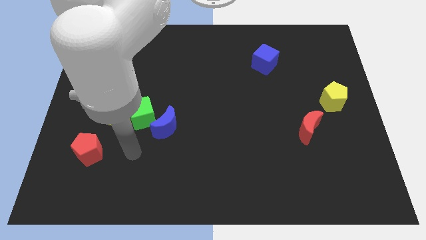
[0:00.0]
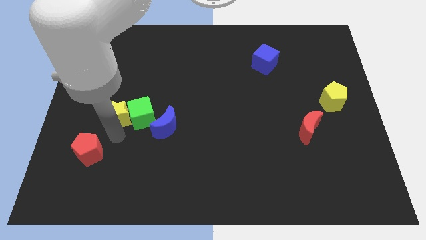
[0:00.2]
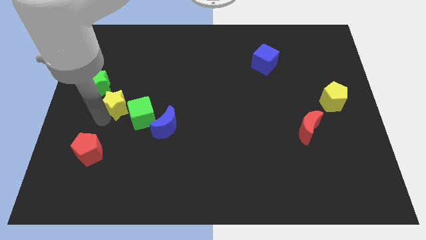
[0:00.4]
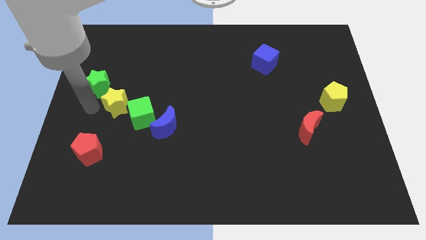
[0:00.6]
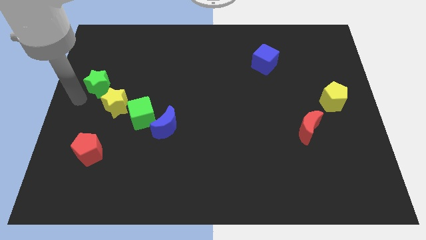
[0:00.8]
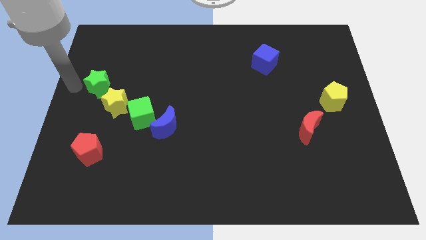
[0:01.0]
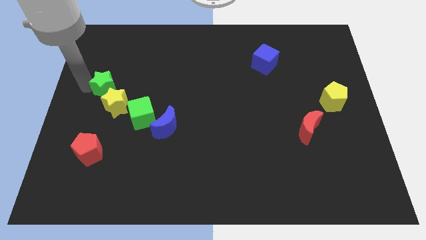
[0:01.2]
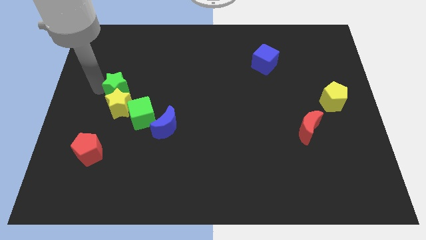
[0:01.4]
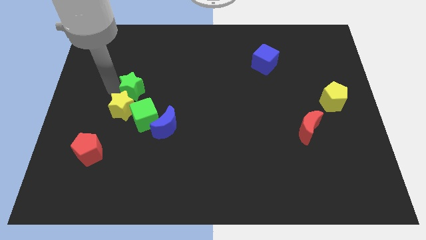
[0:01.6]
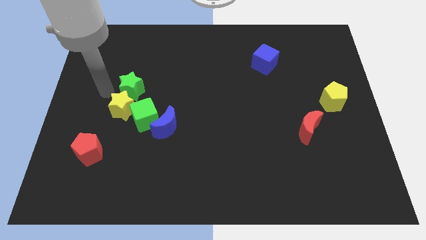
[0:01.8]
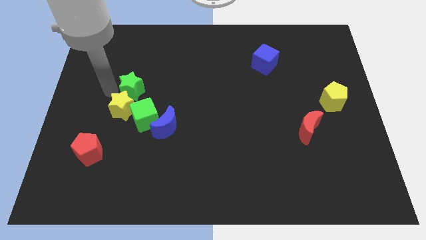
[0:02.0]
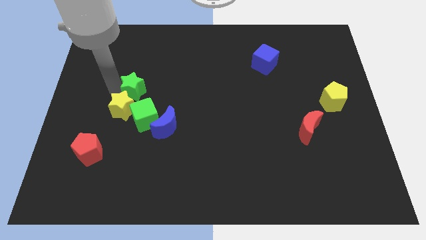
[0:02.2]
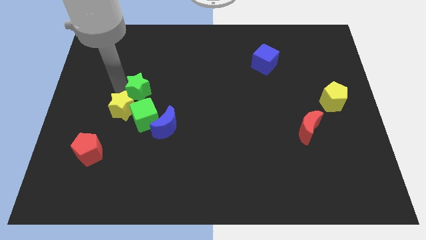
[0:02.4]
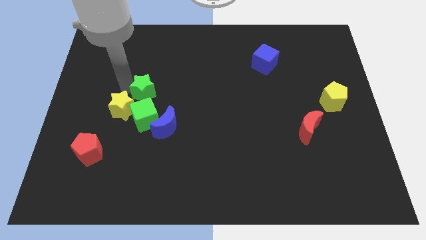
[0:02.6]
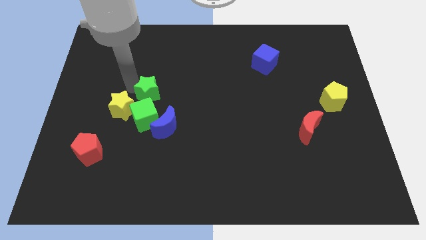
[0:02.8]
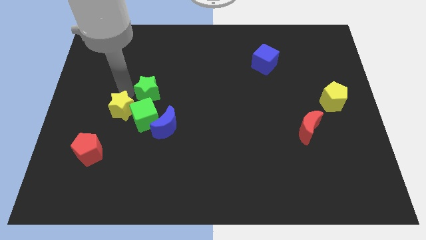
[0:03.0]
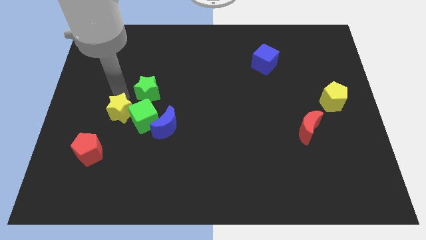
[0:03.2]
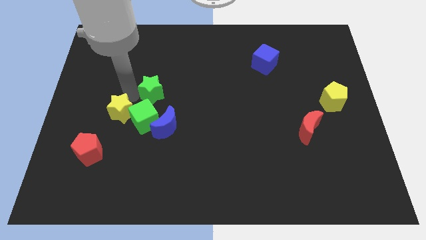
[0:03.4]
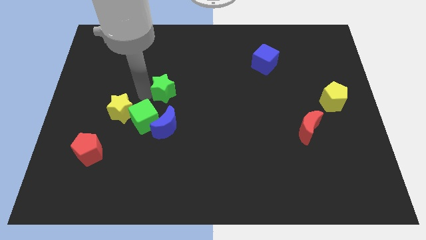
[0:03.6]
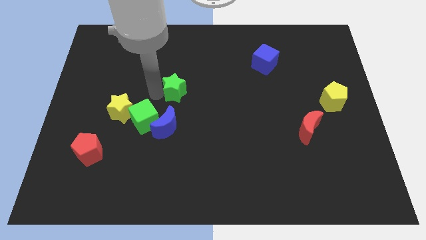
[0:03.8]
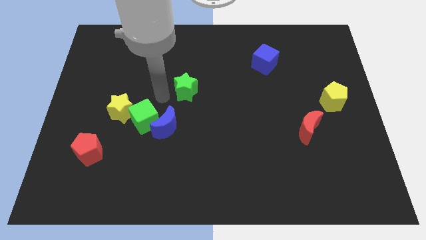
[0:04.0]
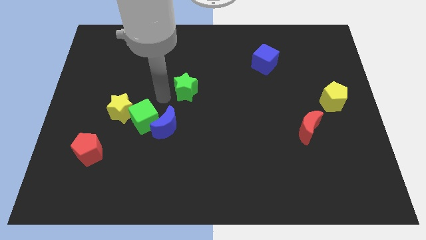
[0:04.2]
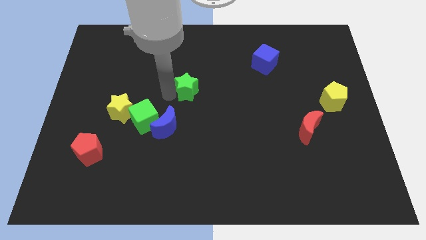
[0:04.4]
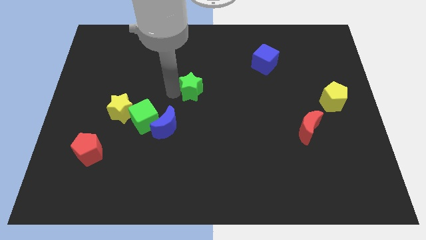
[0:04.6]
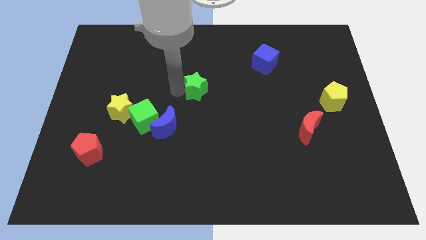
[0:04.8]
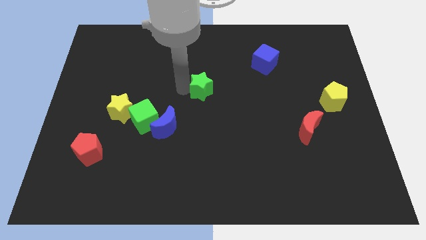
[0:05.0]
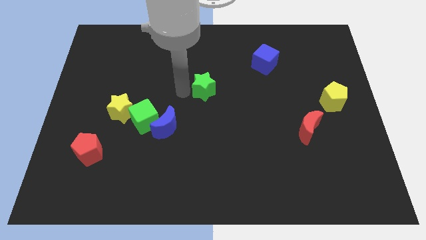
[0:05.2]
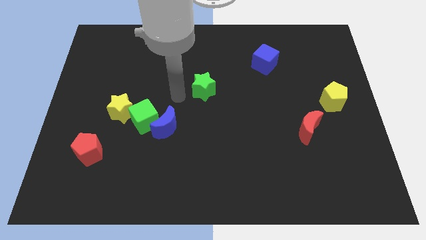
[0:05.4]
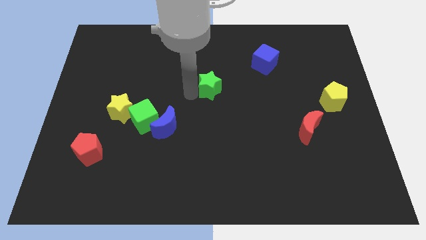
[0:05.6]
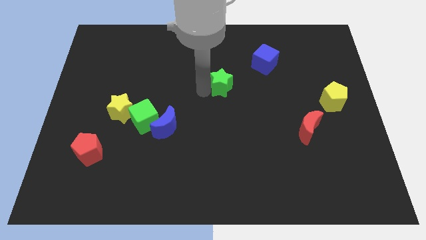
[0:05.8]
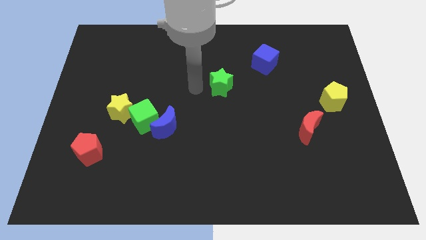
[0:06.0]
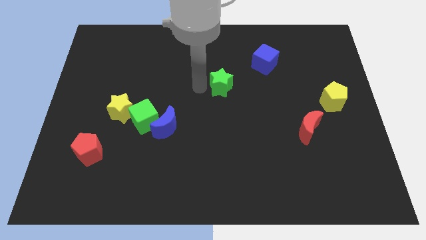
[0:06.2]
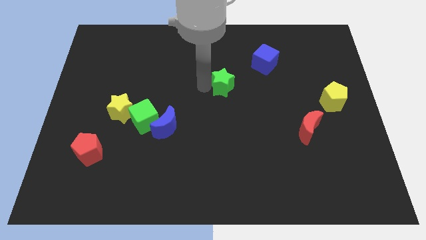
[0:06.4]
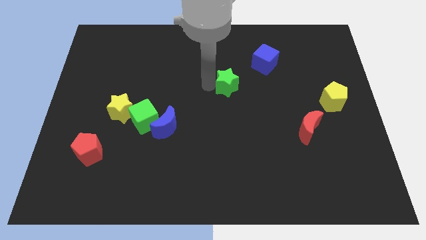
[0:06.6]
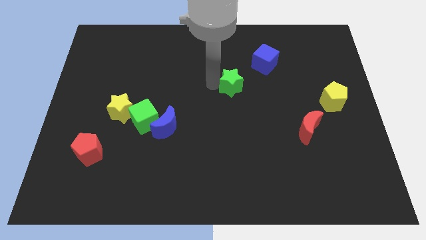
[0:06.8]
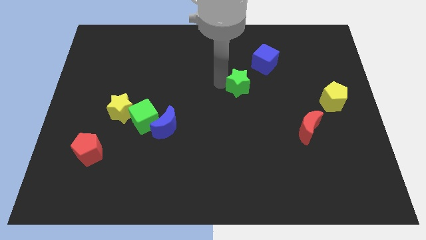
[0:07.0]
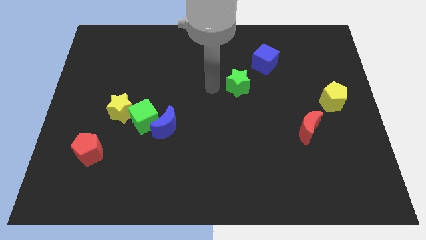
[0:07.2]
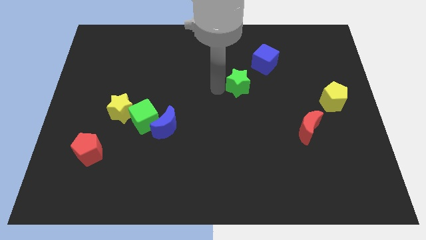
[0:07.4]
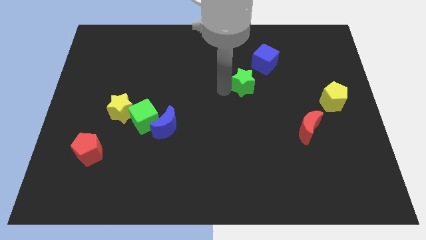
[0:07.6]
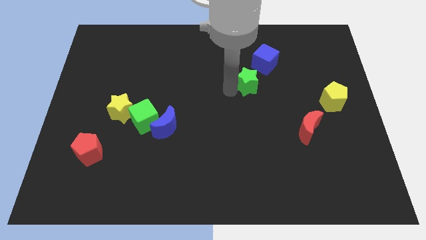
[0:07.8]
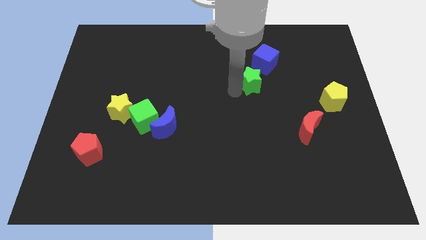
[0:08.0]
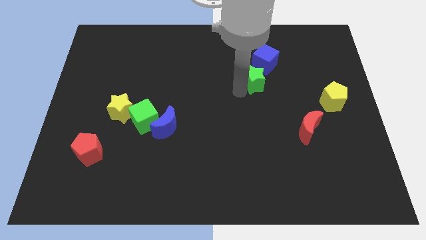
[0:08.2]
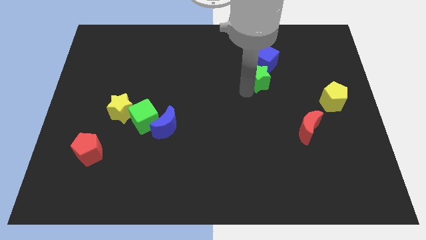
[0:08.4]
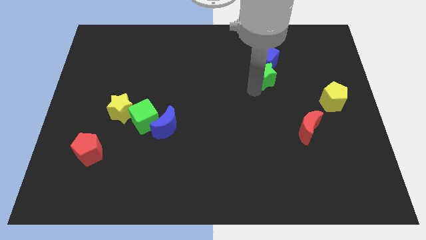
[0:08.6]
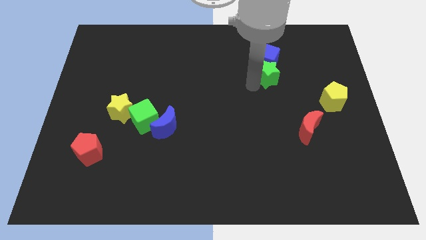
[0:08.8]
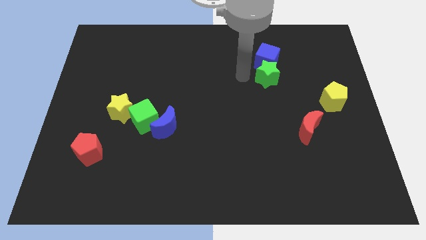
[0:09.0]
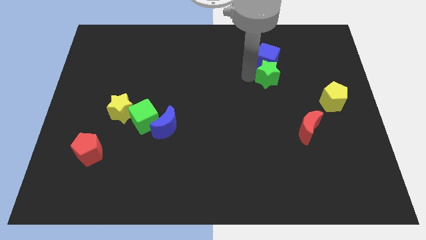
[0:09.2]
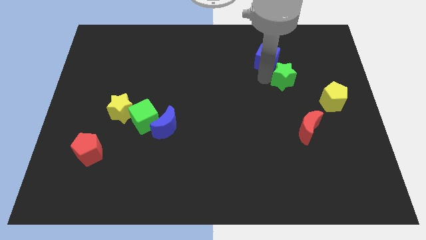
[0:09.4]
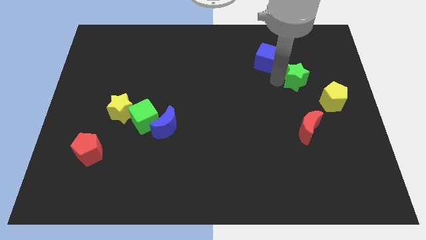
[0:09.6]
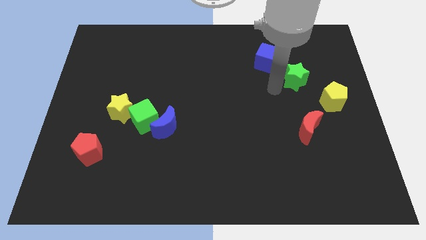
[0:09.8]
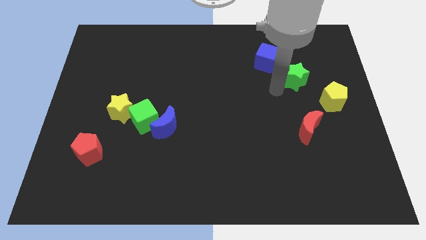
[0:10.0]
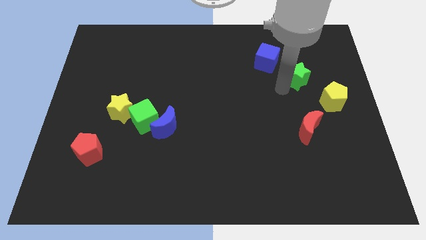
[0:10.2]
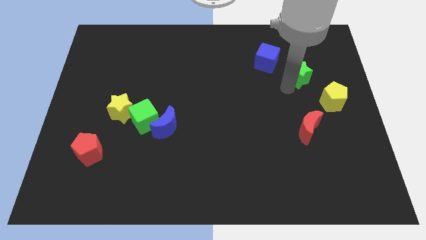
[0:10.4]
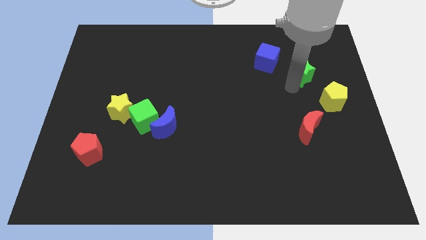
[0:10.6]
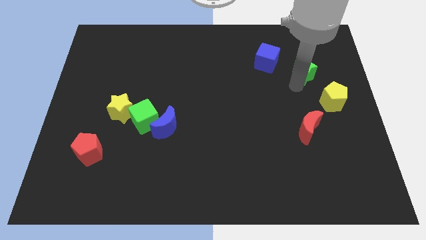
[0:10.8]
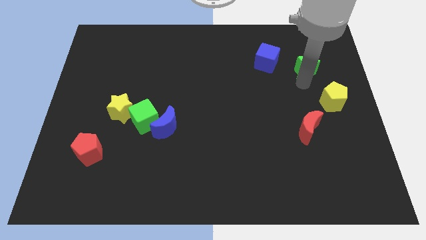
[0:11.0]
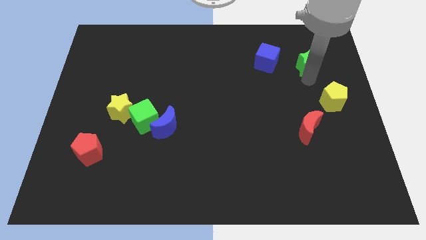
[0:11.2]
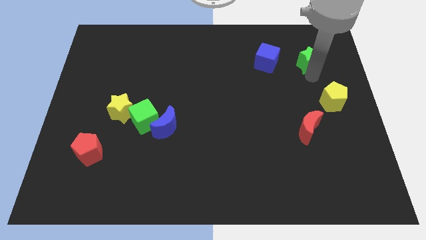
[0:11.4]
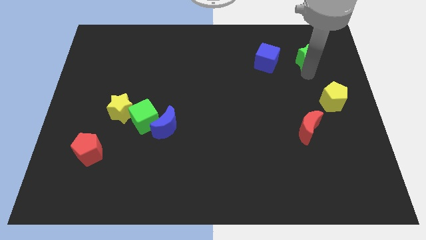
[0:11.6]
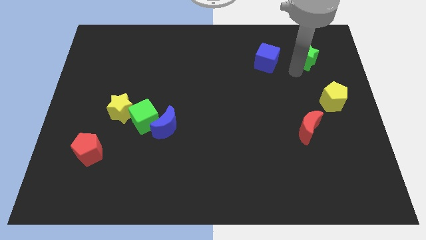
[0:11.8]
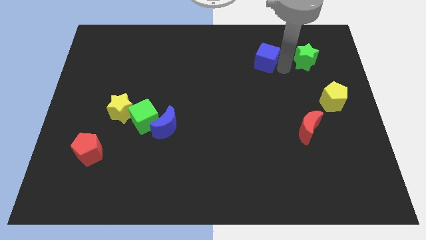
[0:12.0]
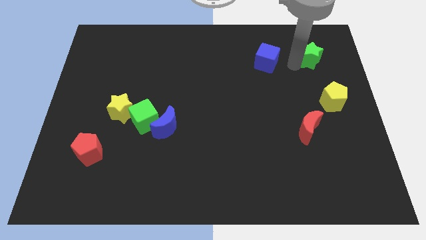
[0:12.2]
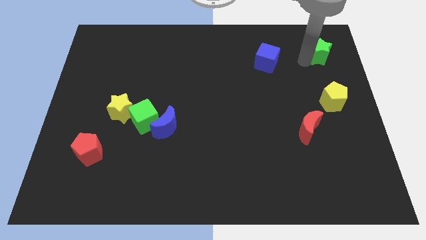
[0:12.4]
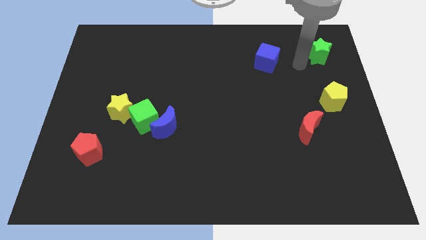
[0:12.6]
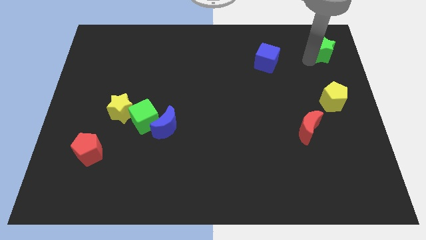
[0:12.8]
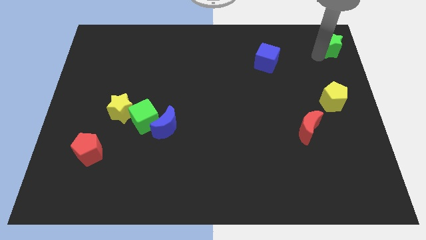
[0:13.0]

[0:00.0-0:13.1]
slide the green star to the top right
